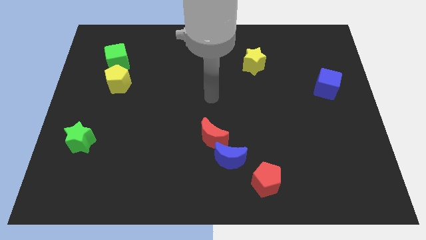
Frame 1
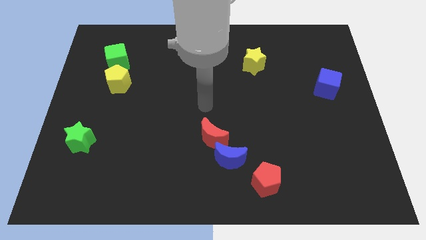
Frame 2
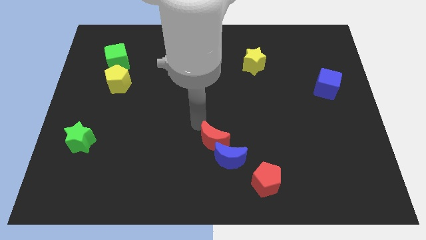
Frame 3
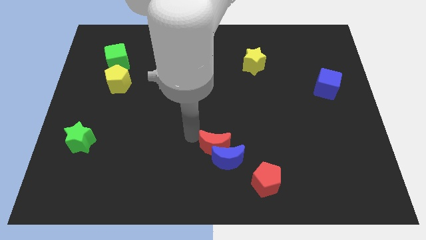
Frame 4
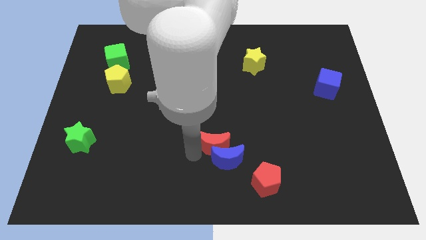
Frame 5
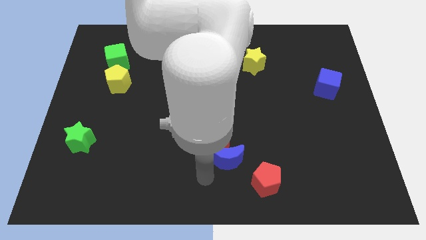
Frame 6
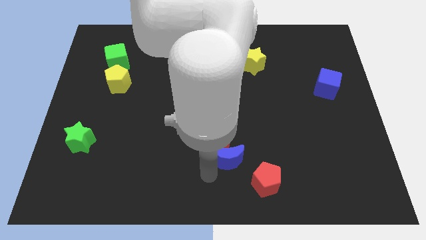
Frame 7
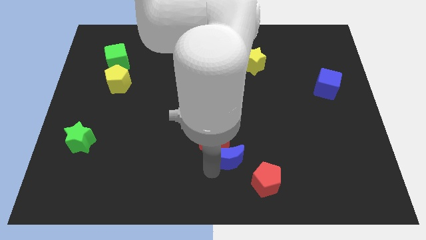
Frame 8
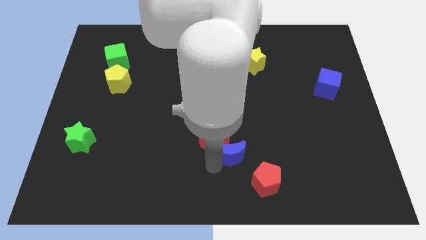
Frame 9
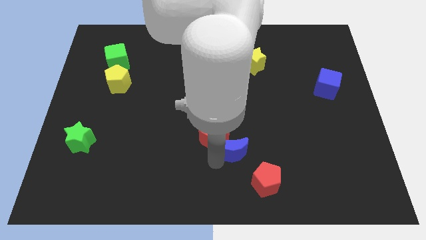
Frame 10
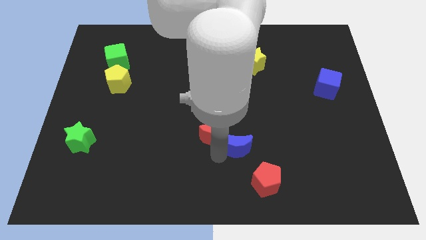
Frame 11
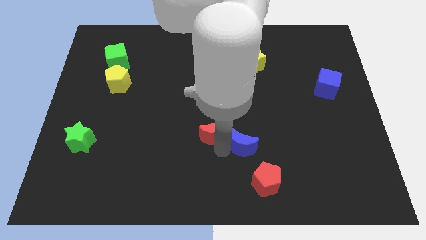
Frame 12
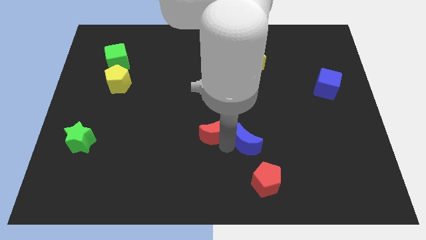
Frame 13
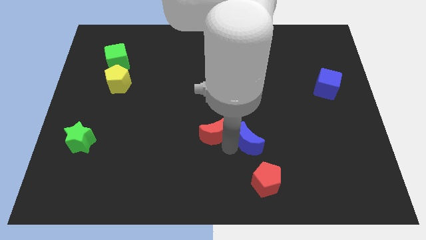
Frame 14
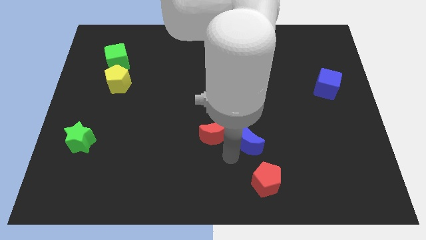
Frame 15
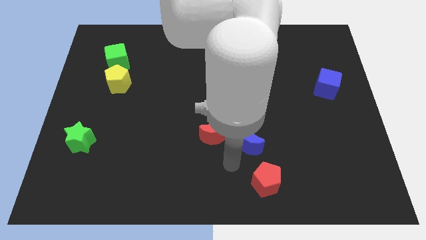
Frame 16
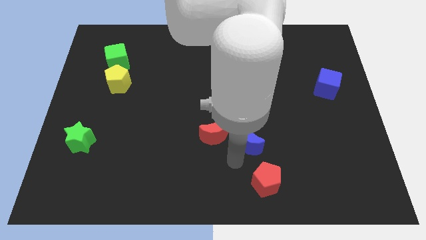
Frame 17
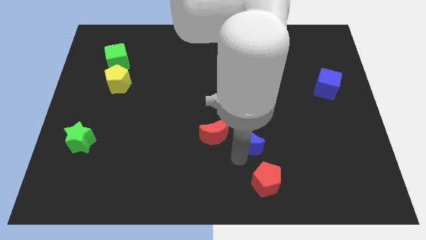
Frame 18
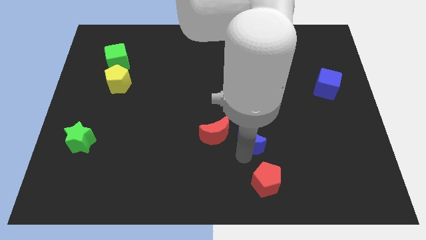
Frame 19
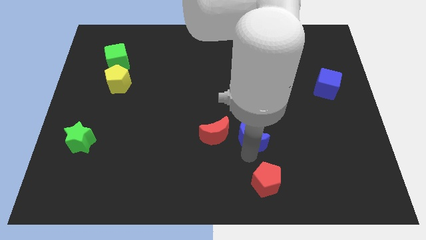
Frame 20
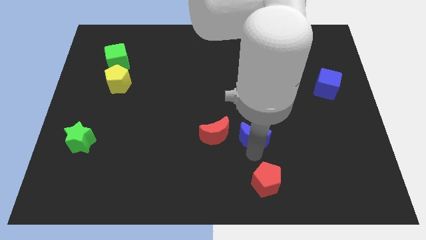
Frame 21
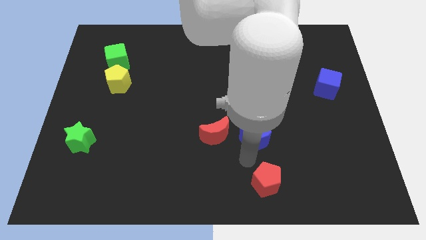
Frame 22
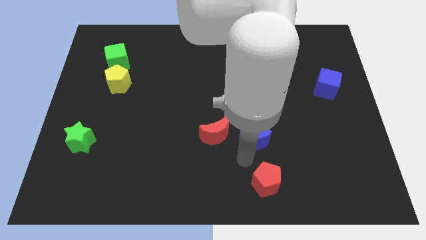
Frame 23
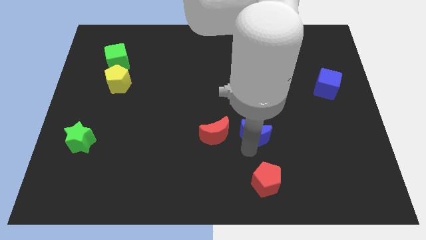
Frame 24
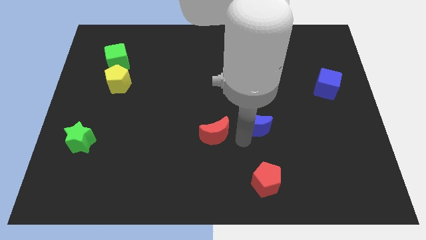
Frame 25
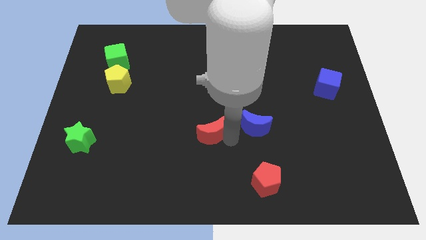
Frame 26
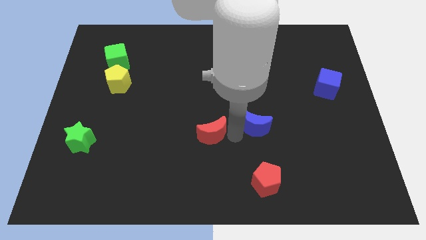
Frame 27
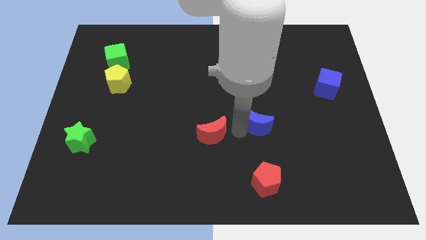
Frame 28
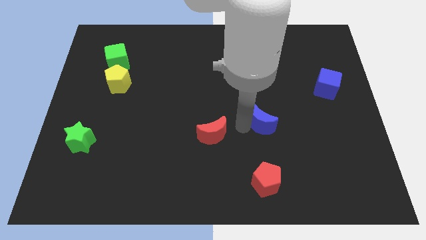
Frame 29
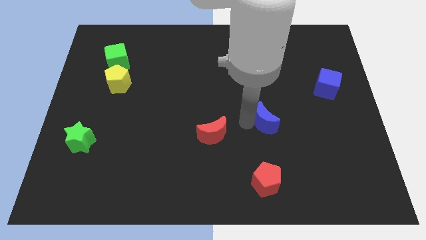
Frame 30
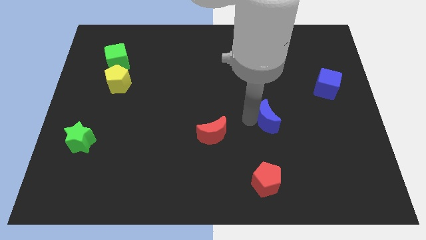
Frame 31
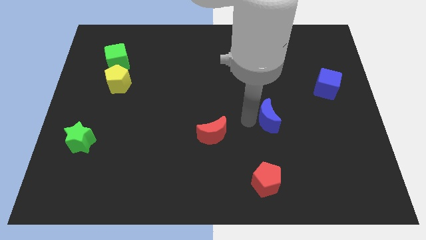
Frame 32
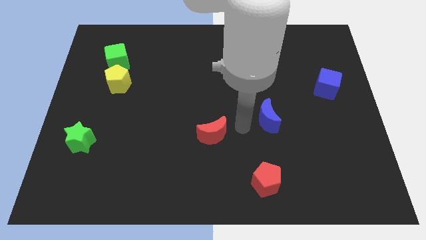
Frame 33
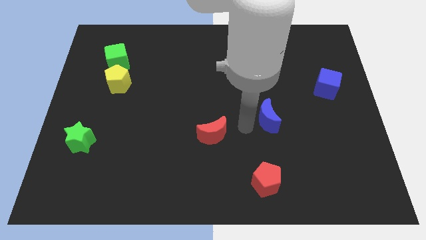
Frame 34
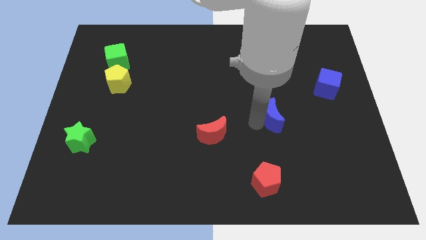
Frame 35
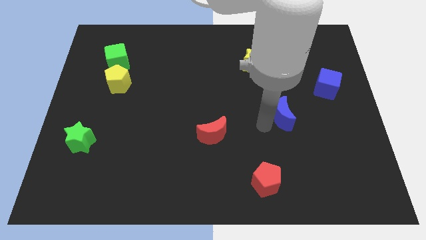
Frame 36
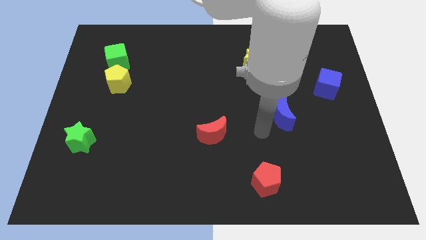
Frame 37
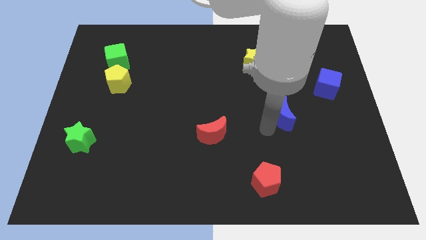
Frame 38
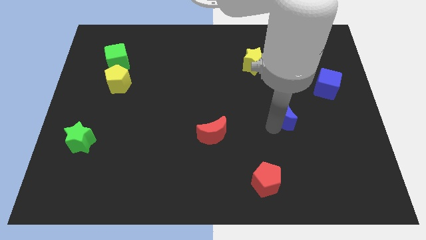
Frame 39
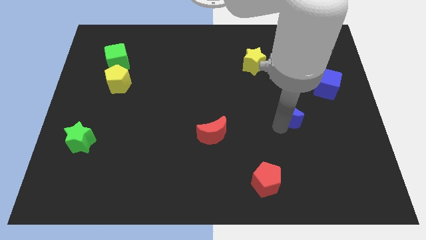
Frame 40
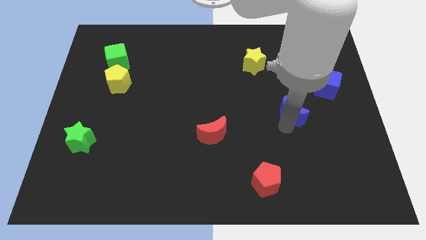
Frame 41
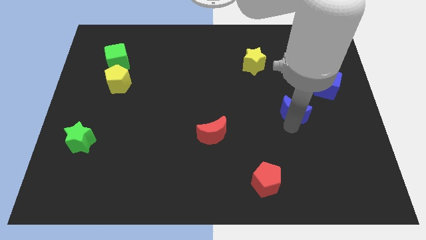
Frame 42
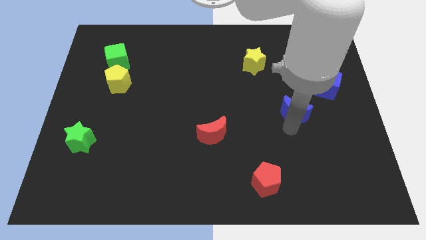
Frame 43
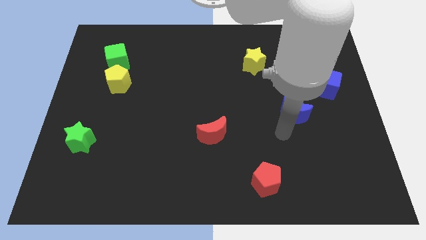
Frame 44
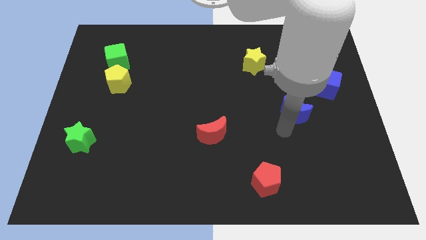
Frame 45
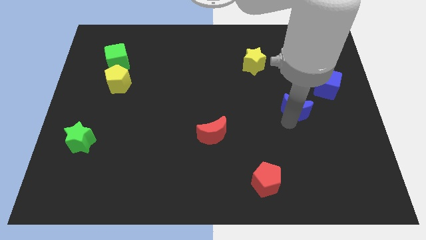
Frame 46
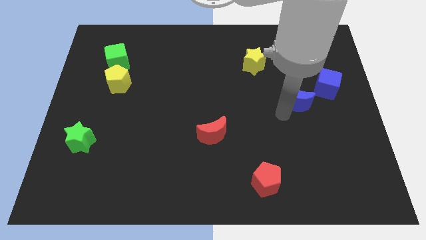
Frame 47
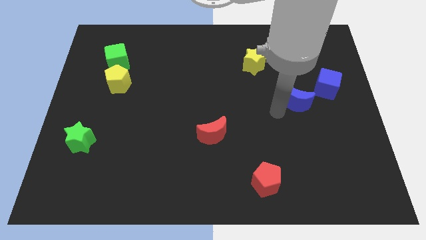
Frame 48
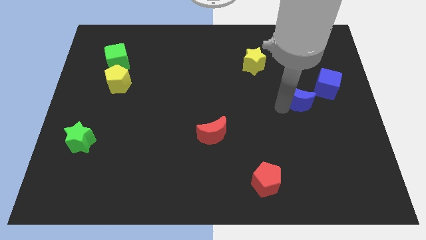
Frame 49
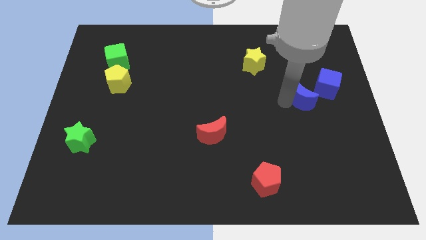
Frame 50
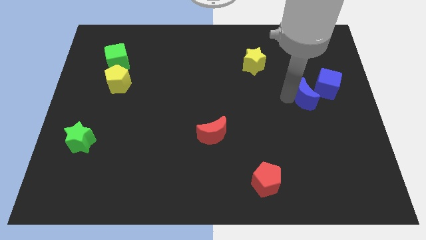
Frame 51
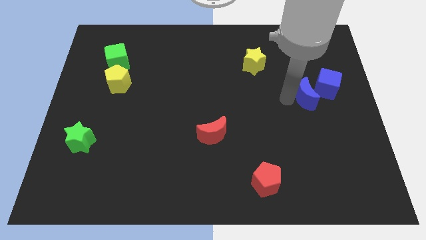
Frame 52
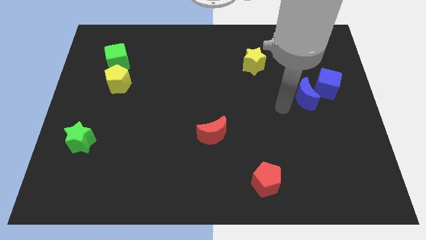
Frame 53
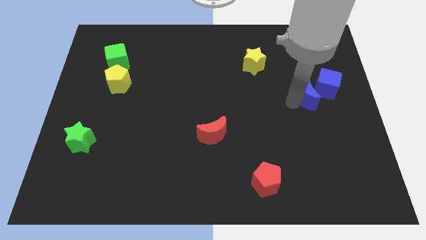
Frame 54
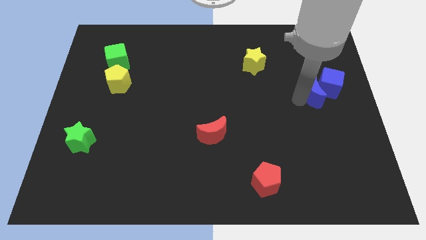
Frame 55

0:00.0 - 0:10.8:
push the blue moon to the blue cube

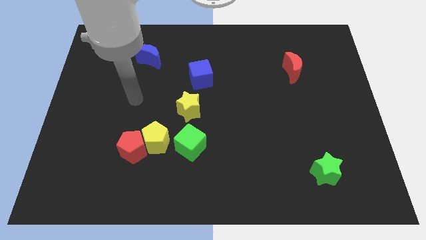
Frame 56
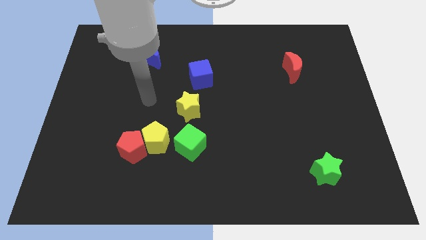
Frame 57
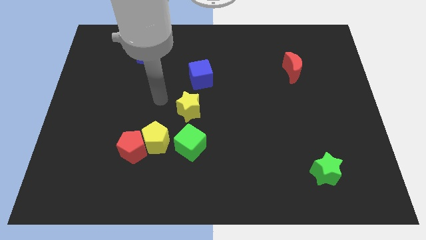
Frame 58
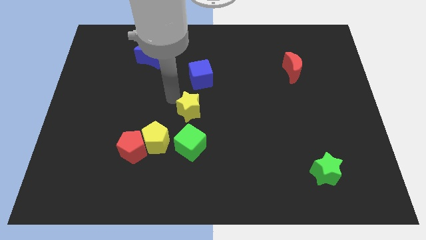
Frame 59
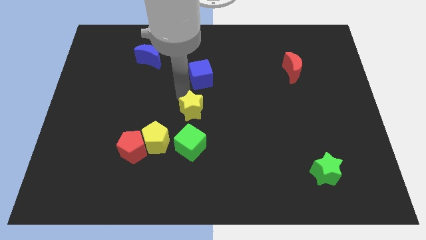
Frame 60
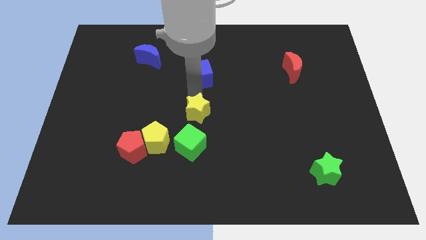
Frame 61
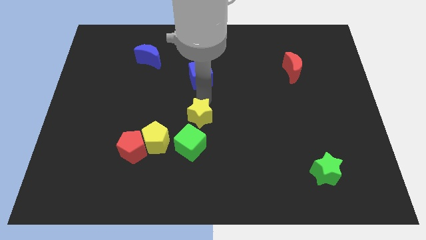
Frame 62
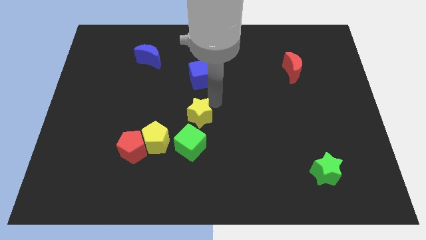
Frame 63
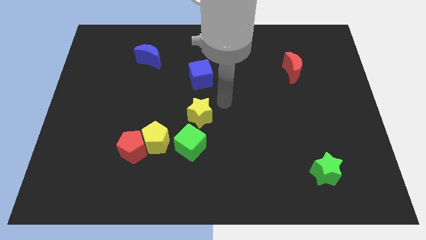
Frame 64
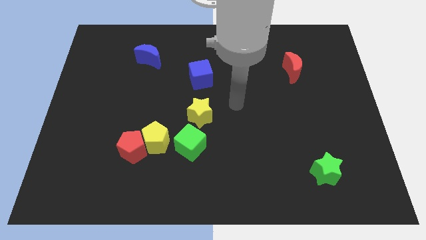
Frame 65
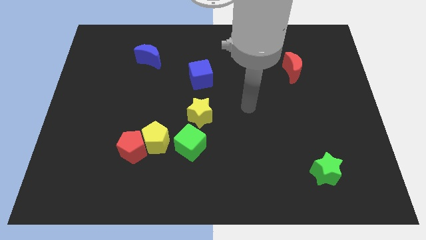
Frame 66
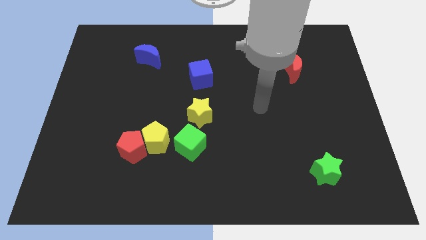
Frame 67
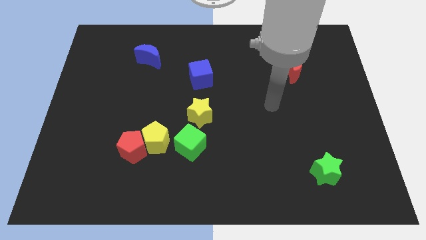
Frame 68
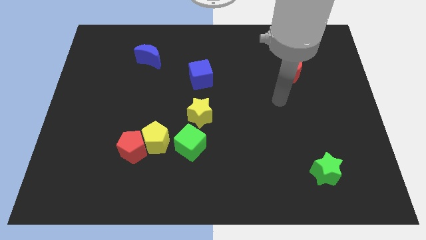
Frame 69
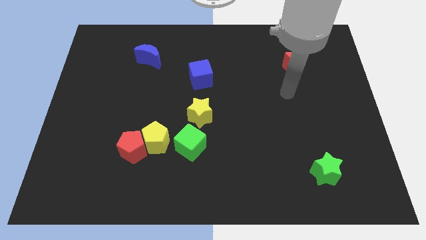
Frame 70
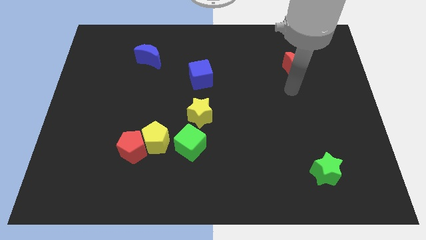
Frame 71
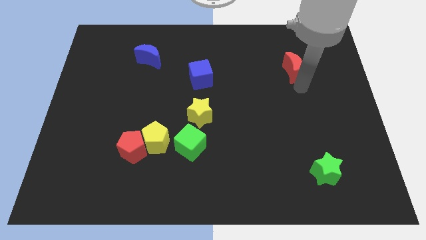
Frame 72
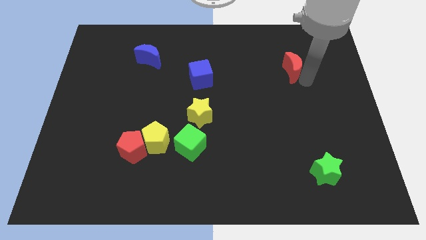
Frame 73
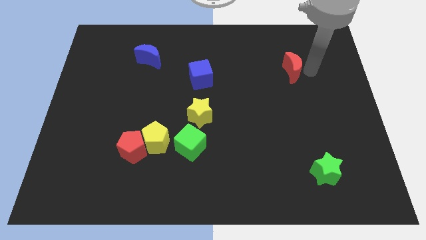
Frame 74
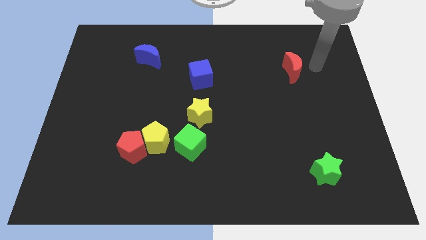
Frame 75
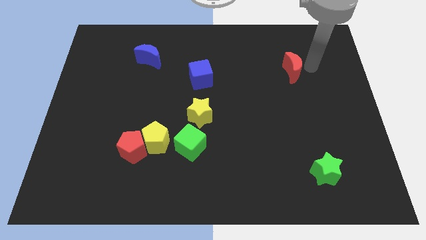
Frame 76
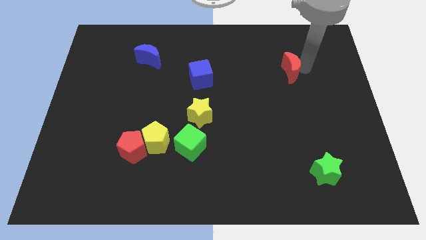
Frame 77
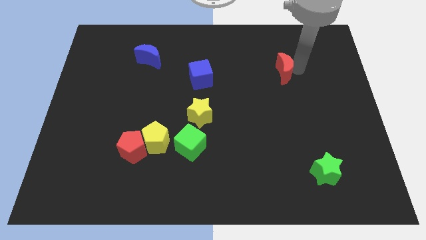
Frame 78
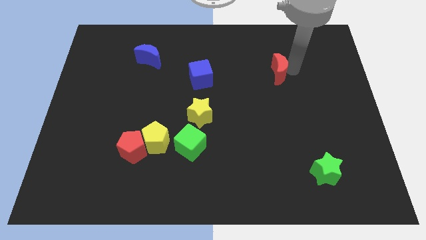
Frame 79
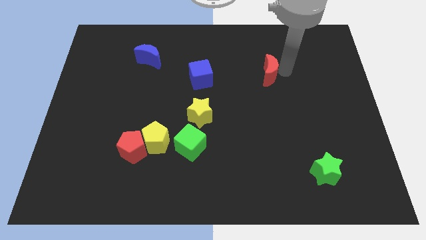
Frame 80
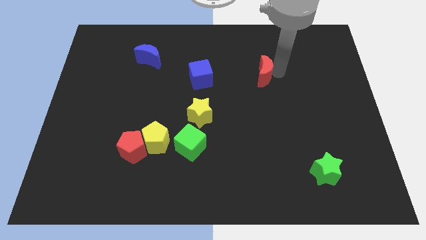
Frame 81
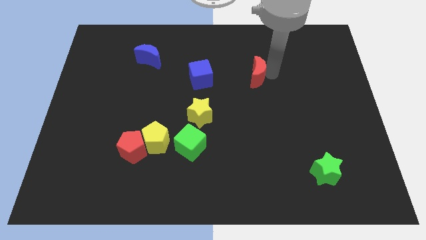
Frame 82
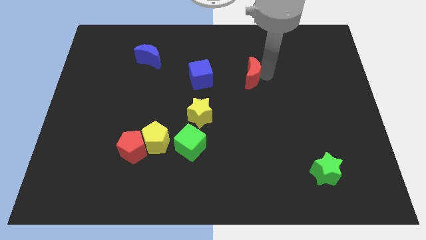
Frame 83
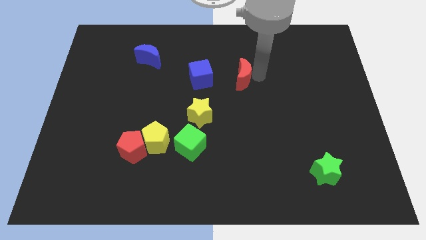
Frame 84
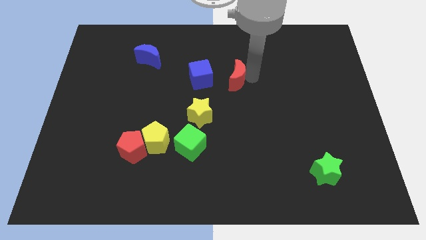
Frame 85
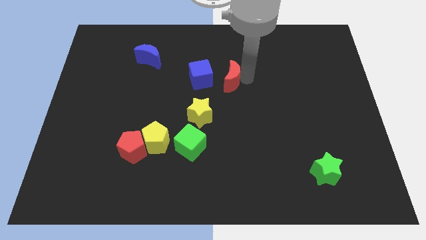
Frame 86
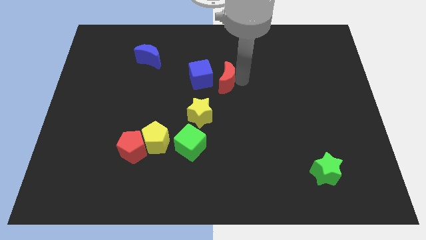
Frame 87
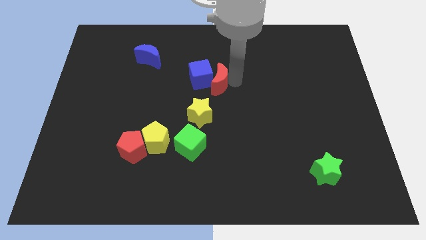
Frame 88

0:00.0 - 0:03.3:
push the red moon next to the blue cube
